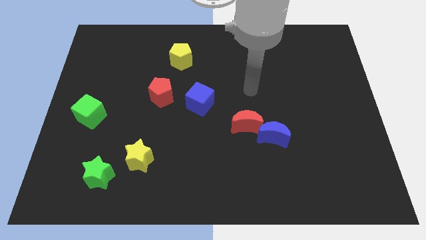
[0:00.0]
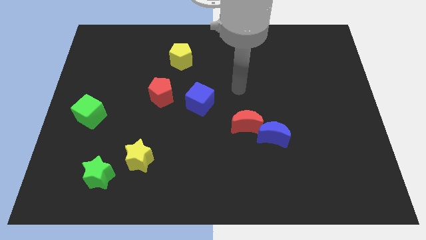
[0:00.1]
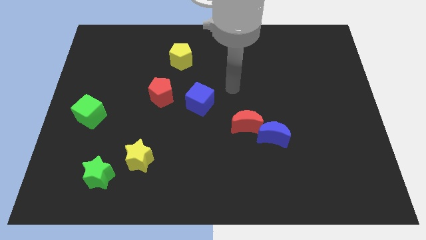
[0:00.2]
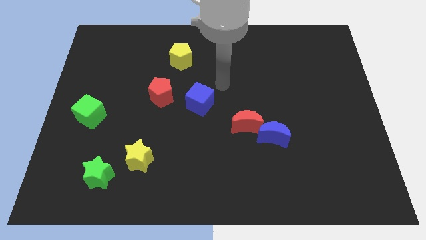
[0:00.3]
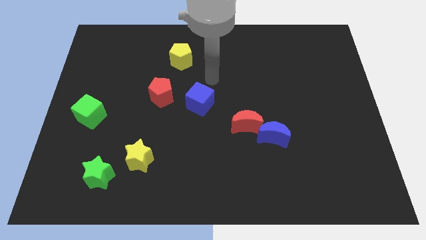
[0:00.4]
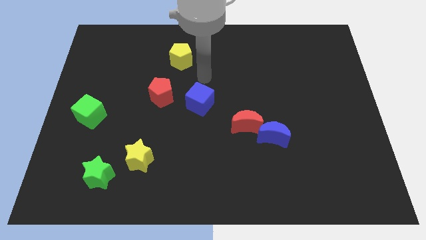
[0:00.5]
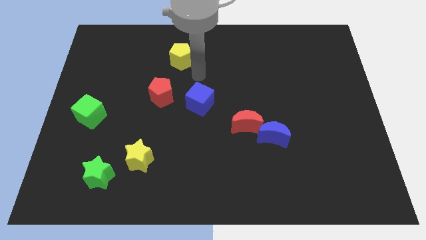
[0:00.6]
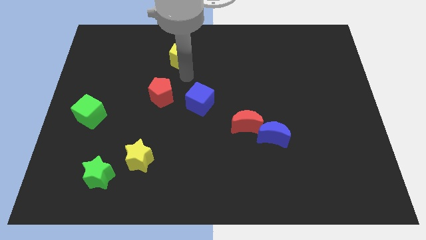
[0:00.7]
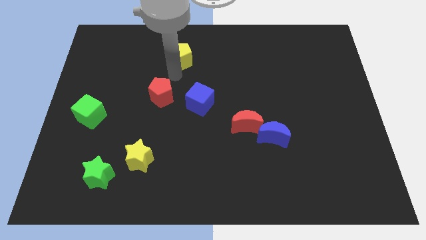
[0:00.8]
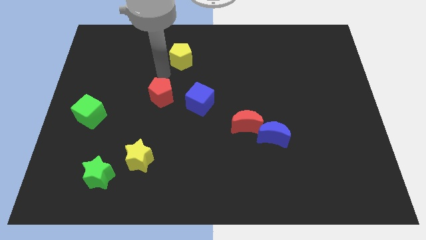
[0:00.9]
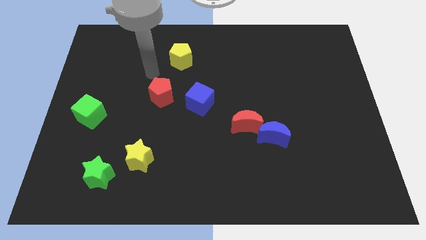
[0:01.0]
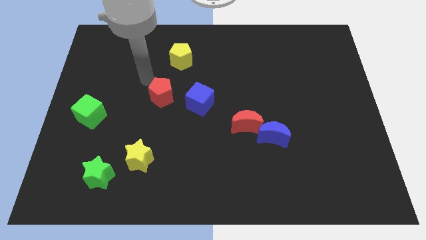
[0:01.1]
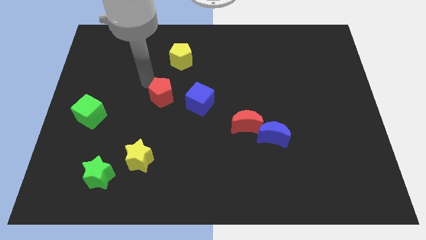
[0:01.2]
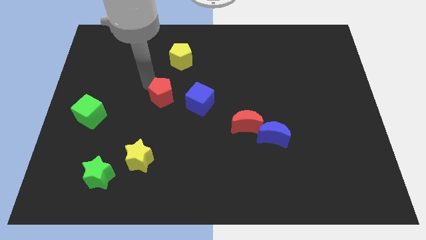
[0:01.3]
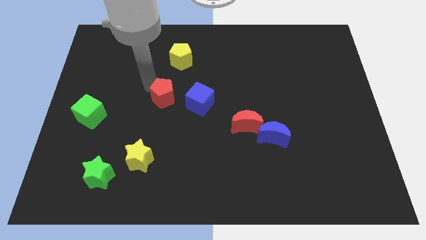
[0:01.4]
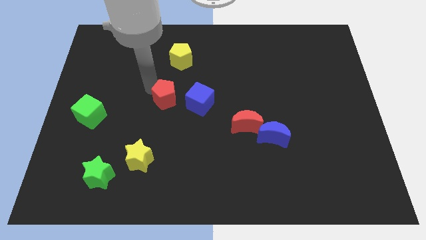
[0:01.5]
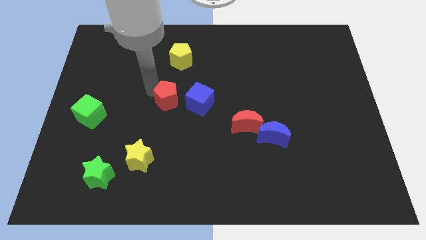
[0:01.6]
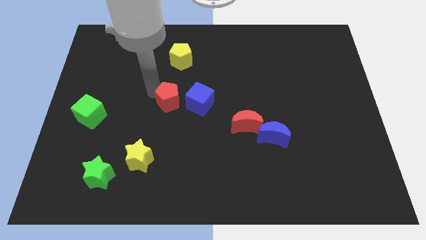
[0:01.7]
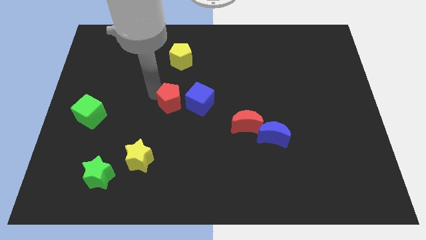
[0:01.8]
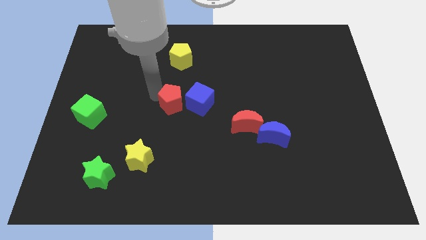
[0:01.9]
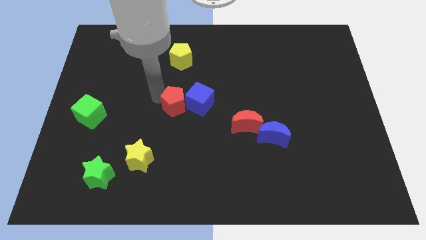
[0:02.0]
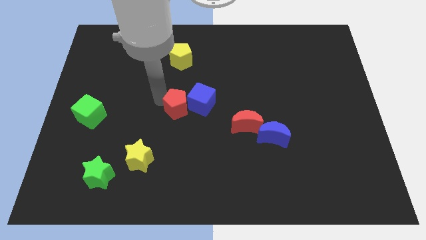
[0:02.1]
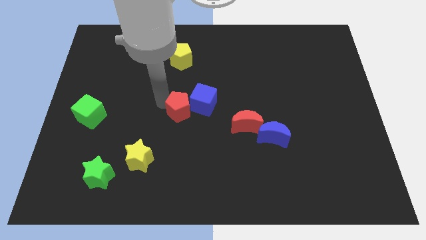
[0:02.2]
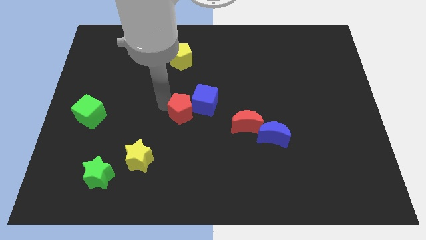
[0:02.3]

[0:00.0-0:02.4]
move the red pentagon down and right diagonally a little

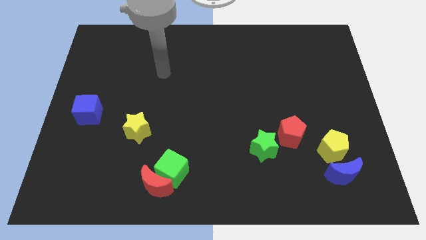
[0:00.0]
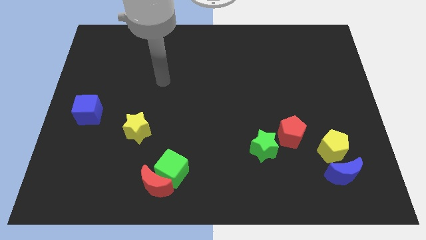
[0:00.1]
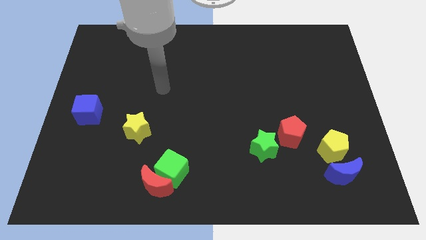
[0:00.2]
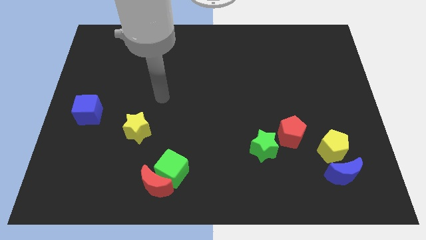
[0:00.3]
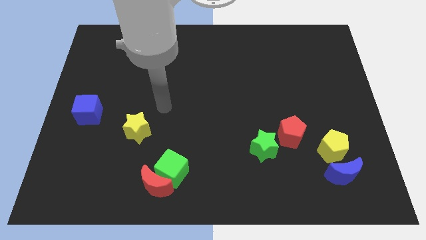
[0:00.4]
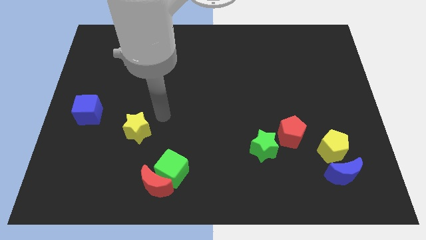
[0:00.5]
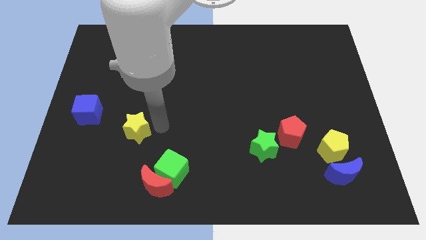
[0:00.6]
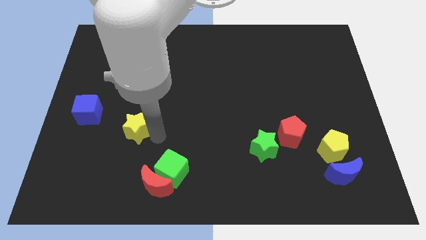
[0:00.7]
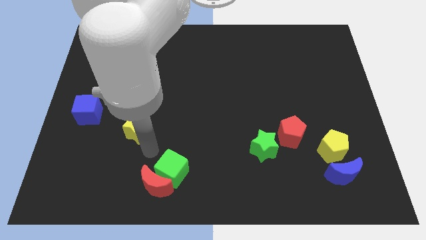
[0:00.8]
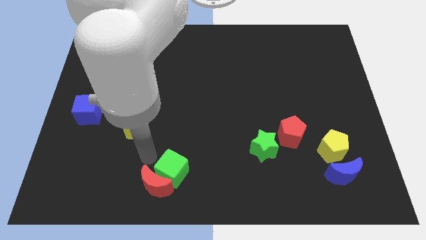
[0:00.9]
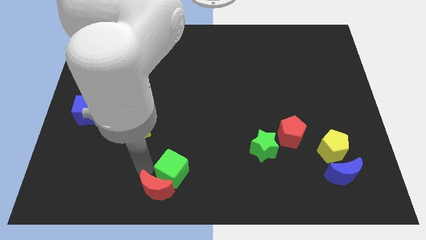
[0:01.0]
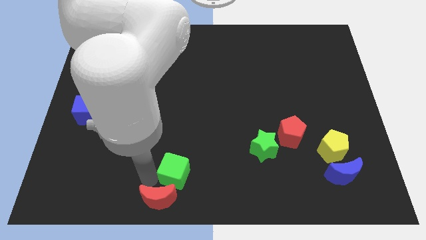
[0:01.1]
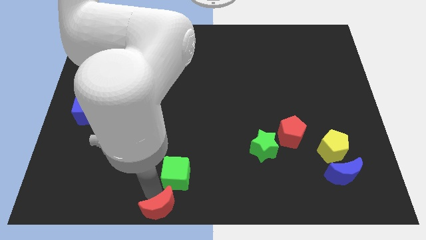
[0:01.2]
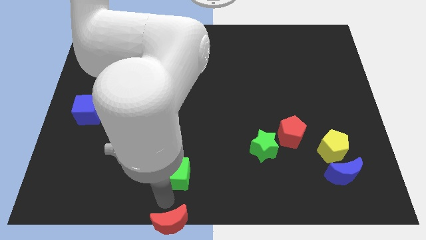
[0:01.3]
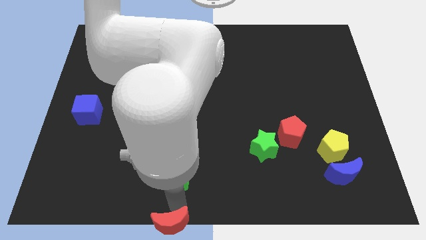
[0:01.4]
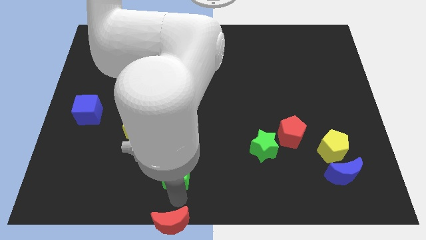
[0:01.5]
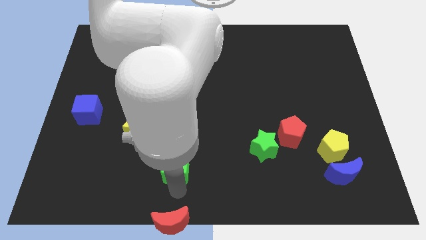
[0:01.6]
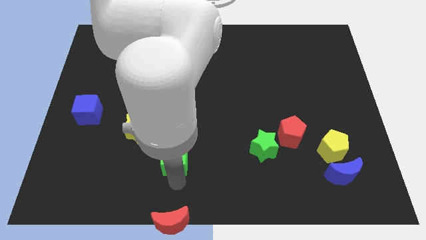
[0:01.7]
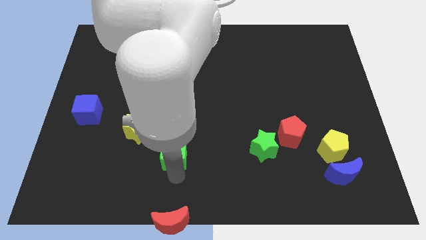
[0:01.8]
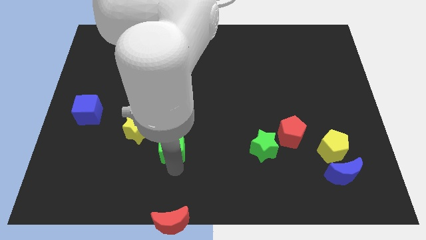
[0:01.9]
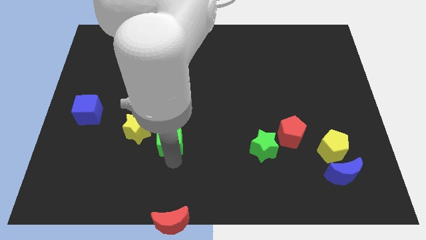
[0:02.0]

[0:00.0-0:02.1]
push the green cube slightly up

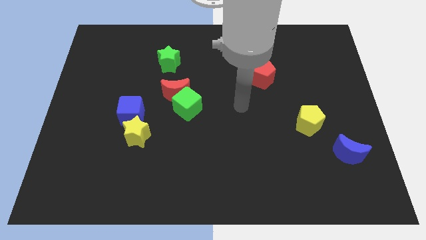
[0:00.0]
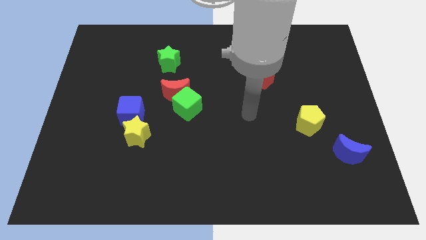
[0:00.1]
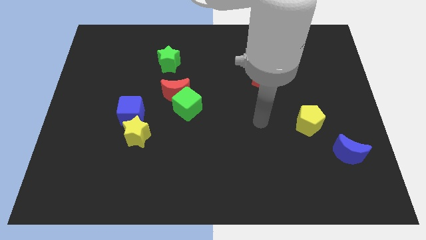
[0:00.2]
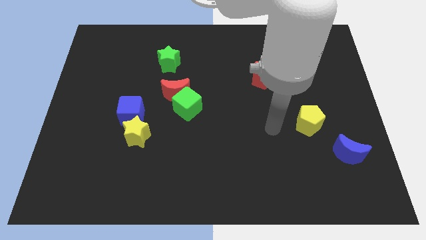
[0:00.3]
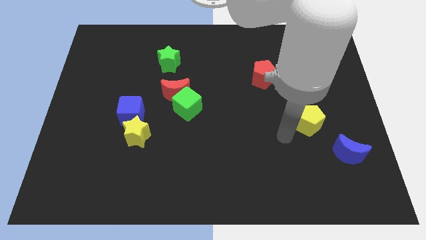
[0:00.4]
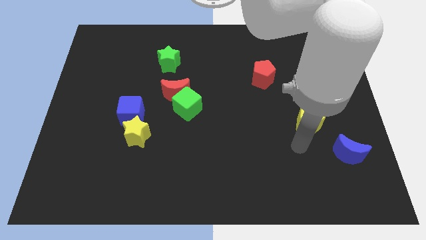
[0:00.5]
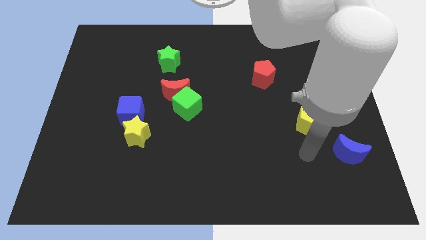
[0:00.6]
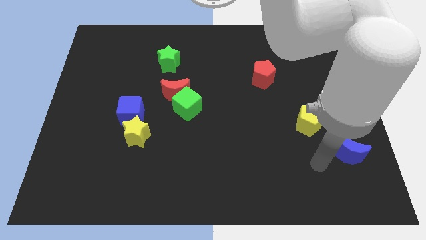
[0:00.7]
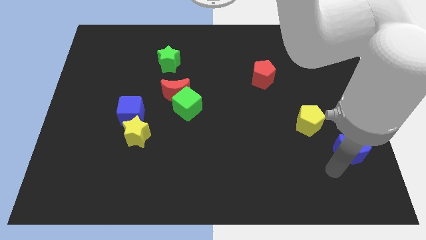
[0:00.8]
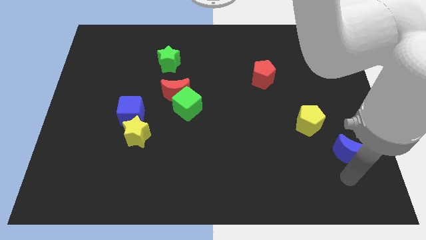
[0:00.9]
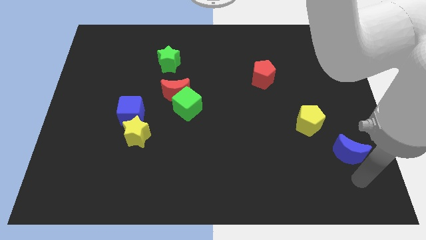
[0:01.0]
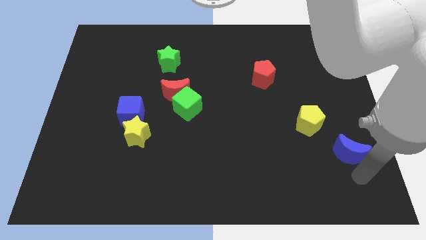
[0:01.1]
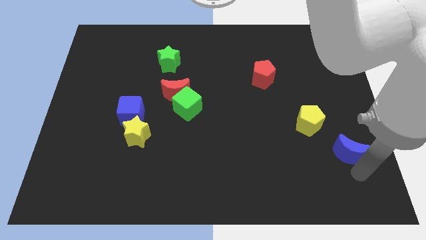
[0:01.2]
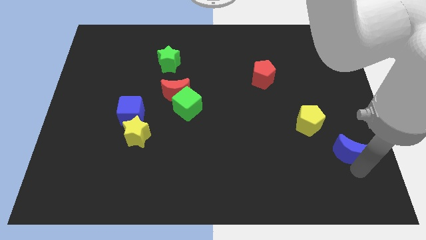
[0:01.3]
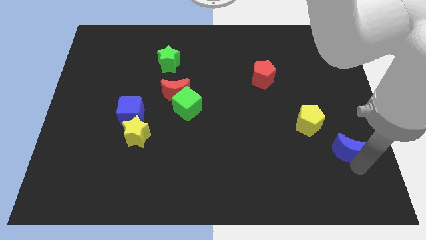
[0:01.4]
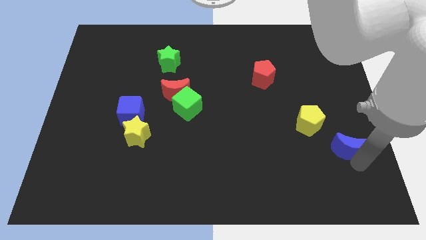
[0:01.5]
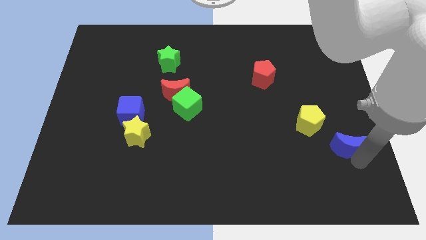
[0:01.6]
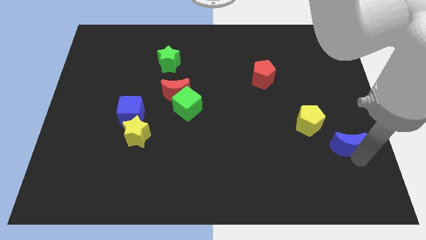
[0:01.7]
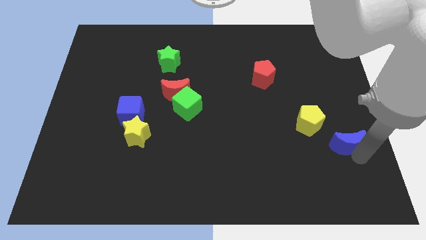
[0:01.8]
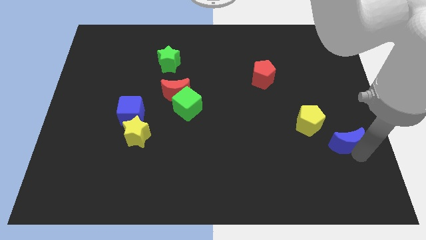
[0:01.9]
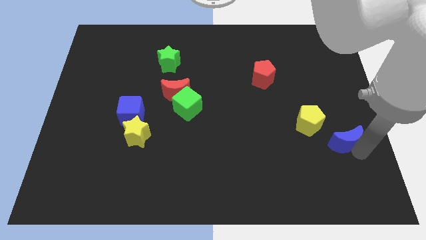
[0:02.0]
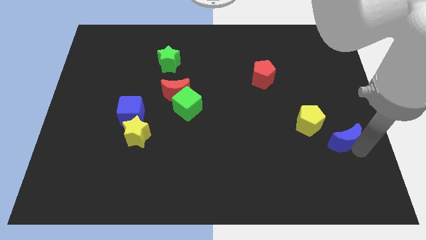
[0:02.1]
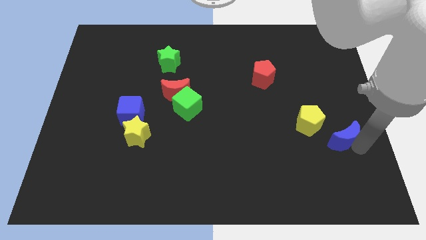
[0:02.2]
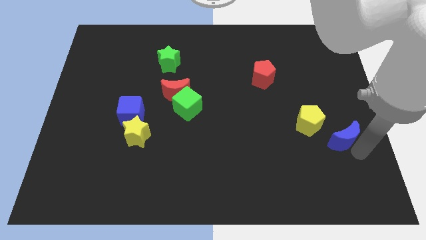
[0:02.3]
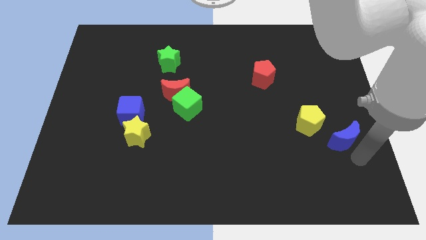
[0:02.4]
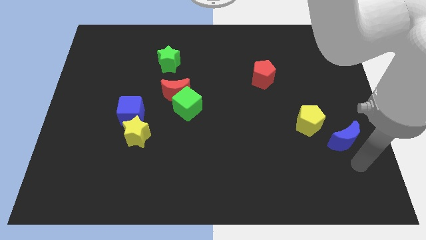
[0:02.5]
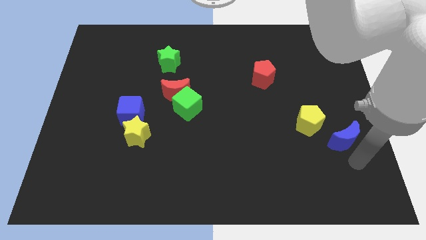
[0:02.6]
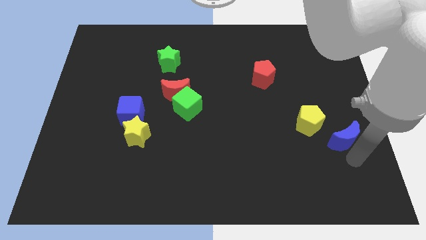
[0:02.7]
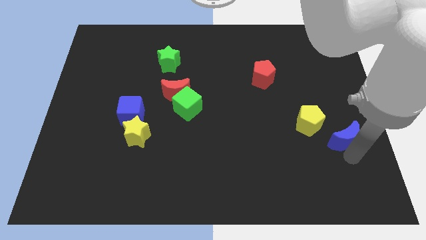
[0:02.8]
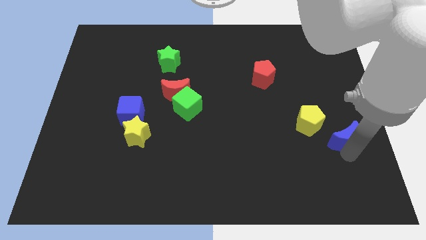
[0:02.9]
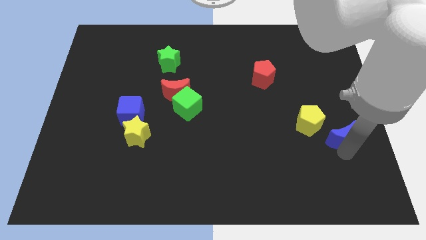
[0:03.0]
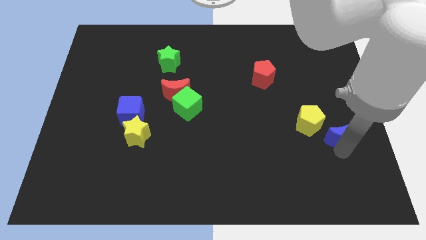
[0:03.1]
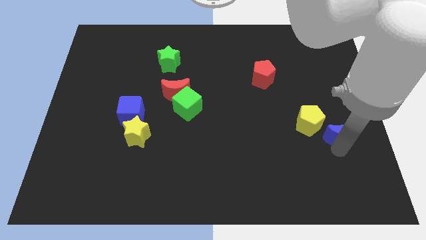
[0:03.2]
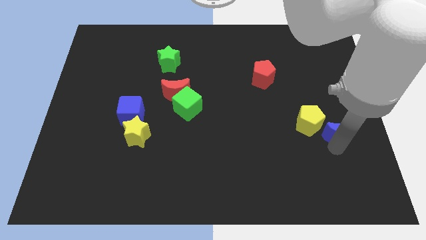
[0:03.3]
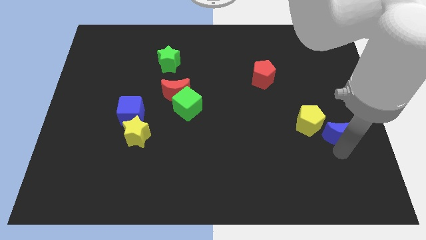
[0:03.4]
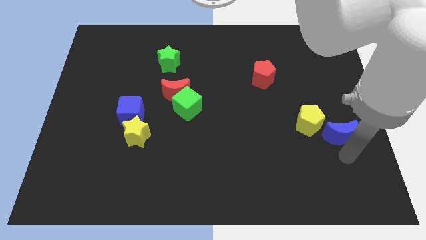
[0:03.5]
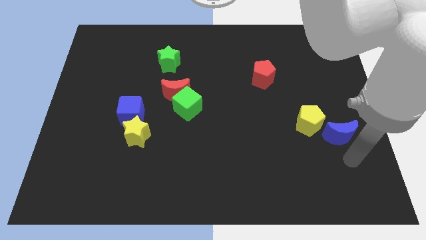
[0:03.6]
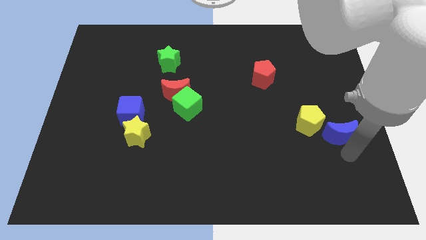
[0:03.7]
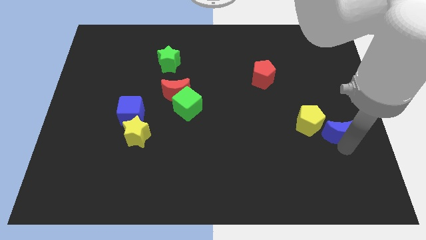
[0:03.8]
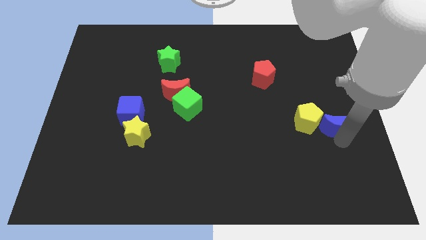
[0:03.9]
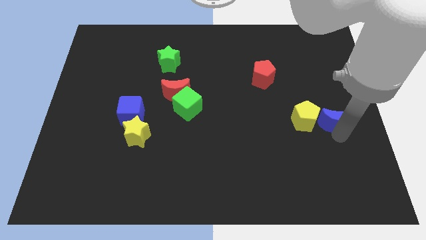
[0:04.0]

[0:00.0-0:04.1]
push the blue moon a little upwards
